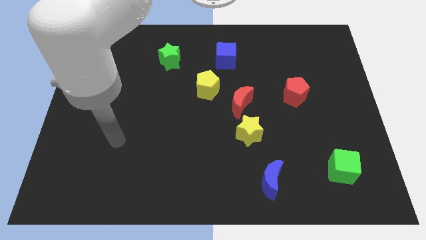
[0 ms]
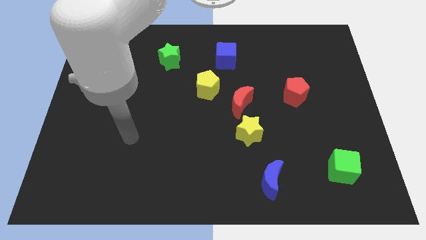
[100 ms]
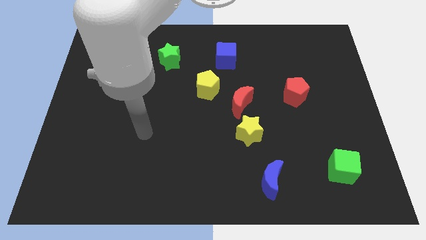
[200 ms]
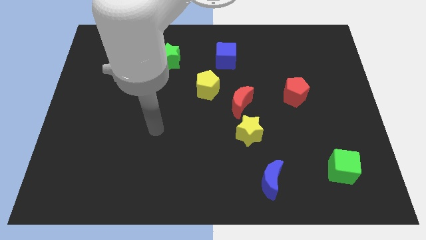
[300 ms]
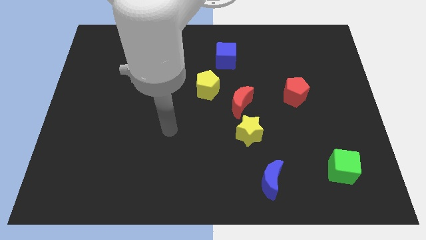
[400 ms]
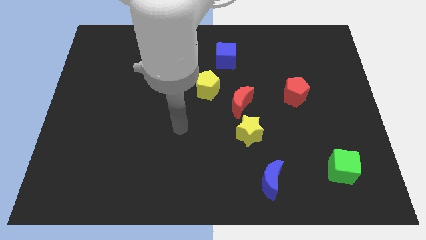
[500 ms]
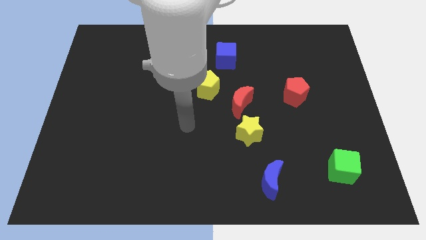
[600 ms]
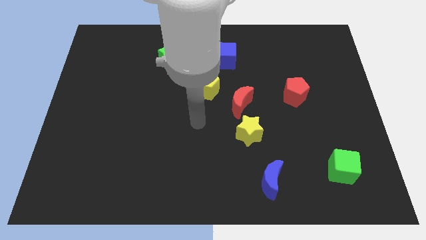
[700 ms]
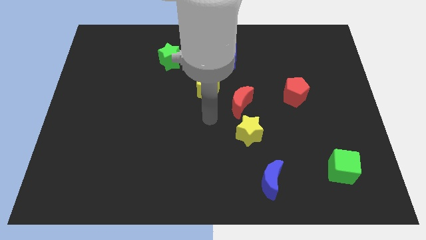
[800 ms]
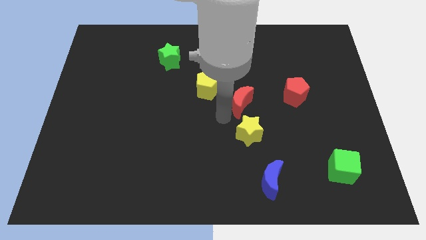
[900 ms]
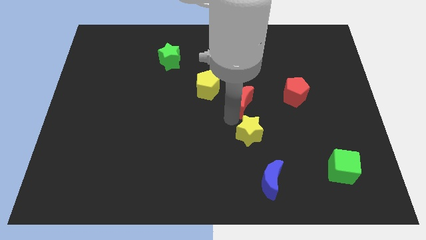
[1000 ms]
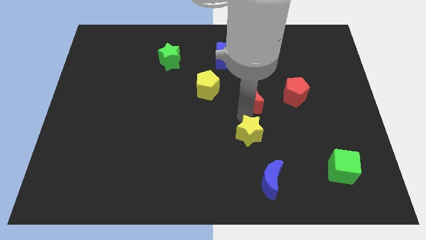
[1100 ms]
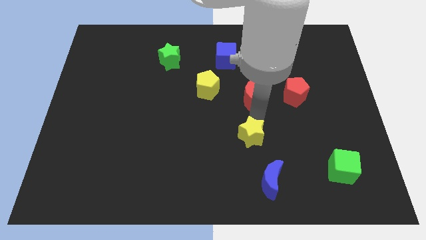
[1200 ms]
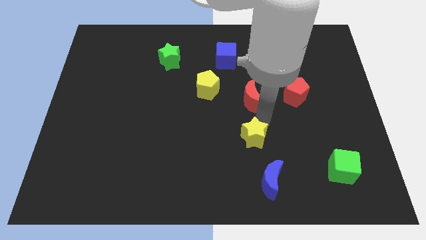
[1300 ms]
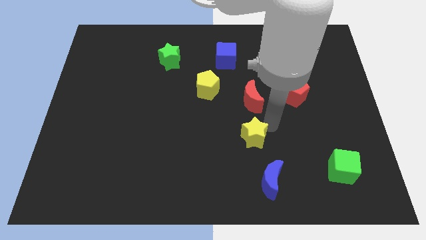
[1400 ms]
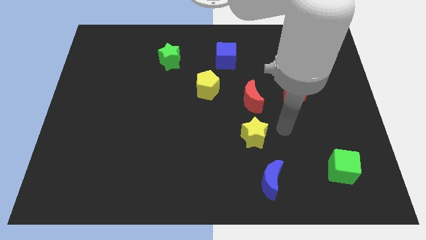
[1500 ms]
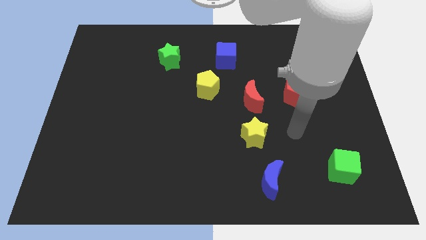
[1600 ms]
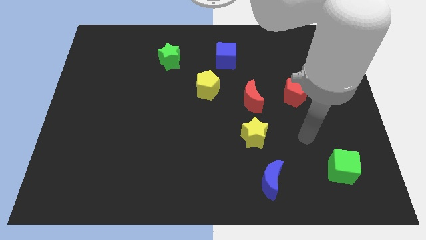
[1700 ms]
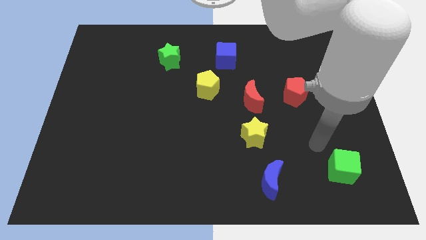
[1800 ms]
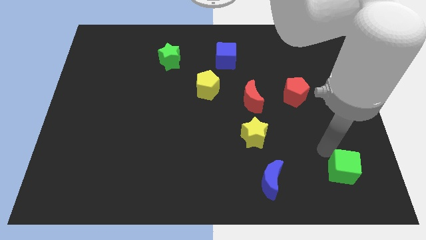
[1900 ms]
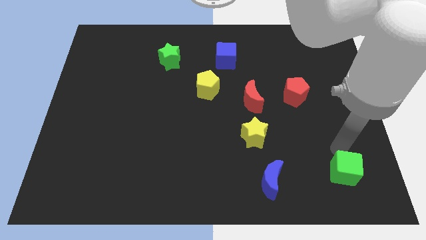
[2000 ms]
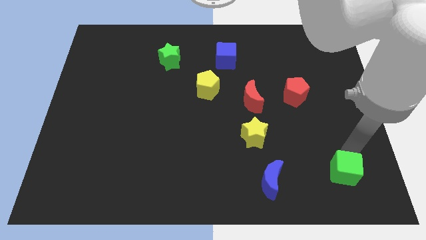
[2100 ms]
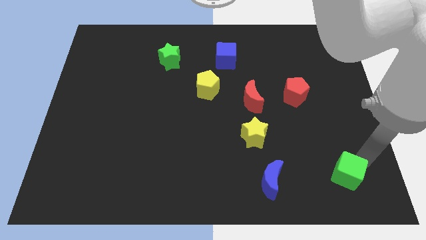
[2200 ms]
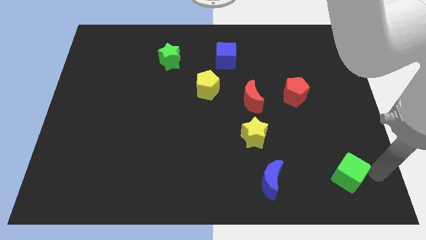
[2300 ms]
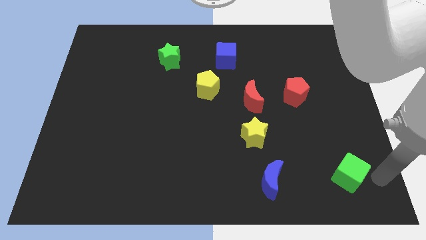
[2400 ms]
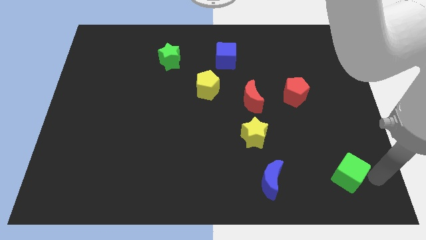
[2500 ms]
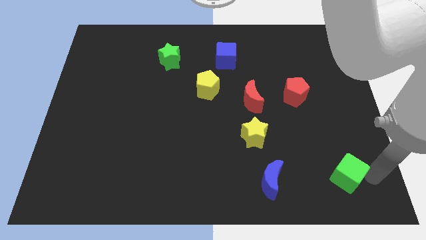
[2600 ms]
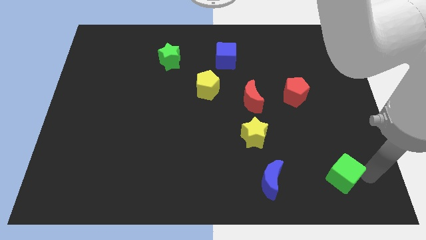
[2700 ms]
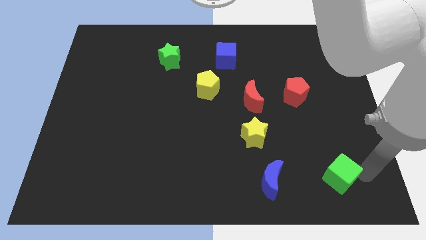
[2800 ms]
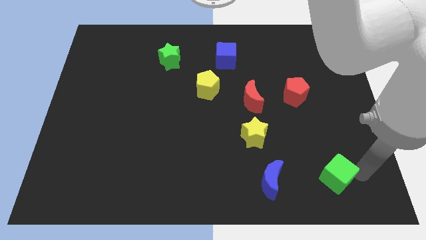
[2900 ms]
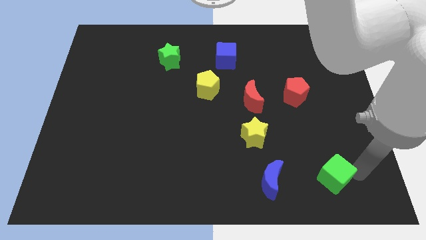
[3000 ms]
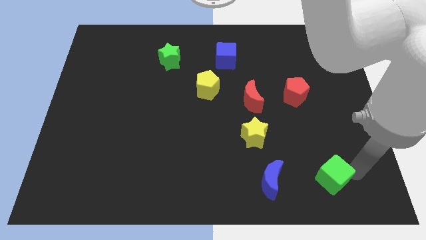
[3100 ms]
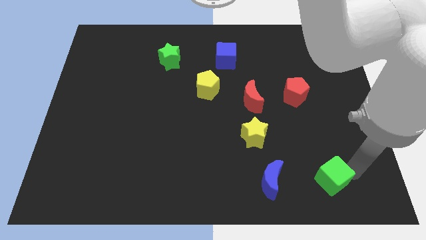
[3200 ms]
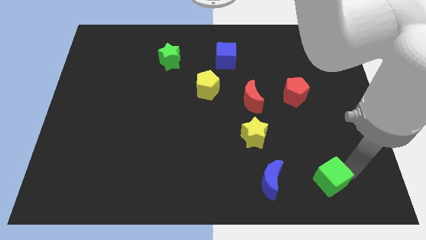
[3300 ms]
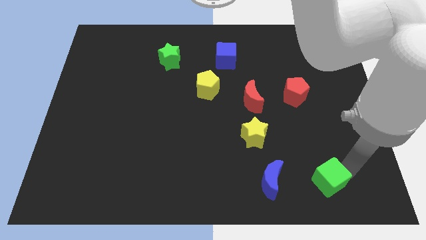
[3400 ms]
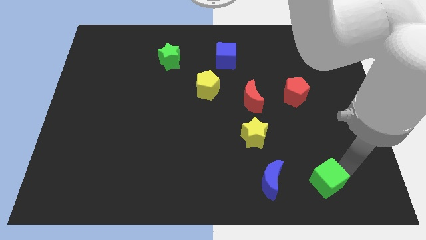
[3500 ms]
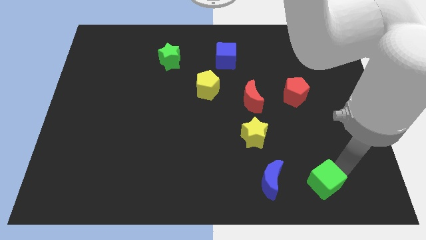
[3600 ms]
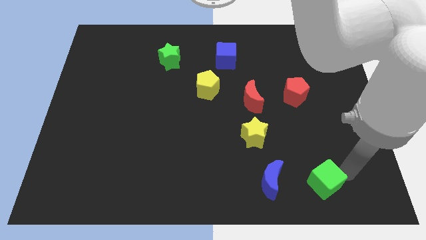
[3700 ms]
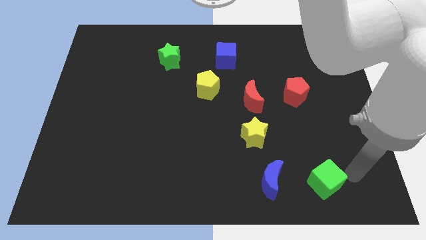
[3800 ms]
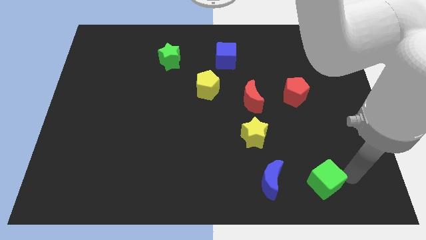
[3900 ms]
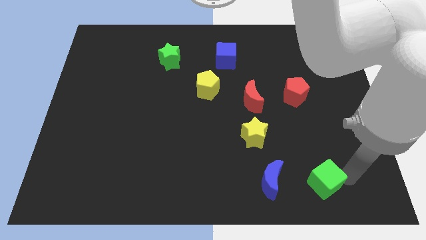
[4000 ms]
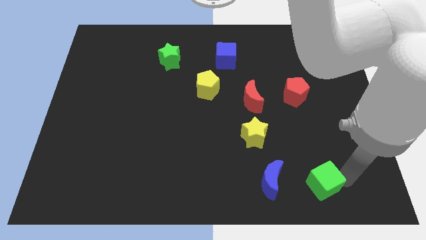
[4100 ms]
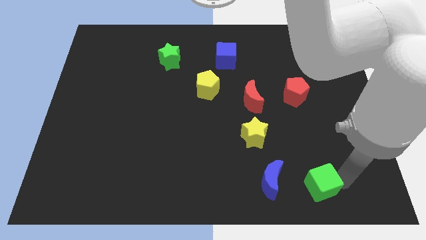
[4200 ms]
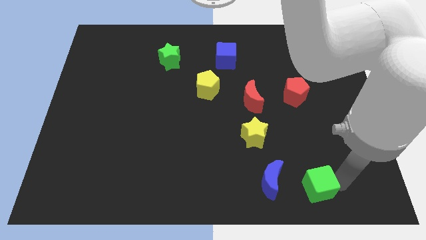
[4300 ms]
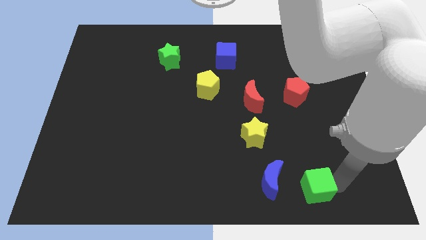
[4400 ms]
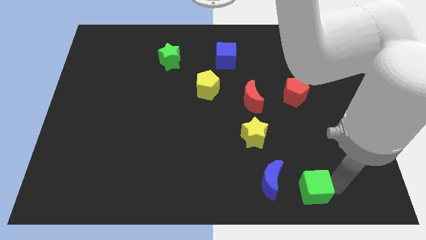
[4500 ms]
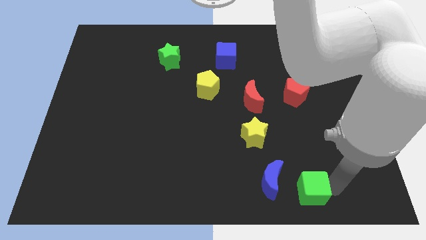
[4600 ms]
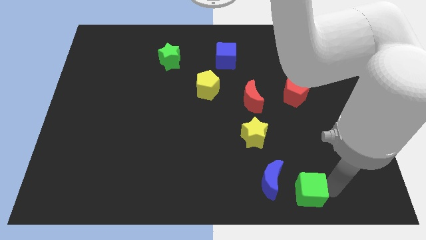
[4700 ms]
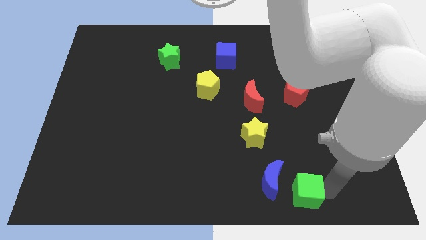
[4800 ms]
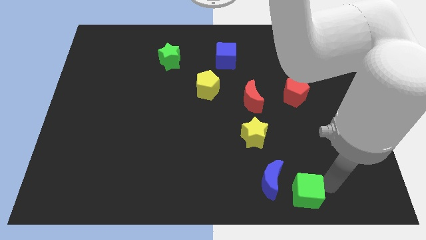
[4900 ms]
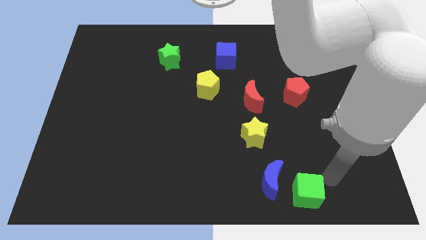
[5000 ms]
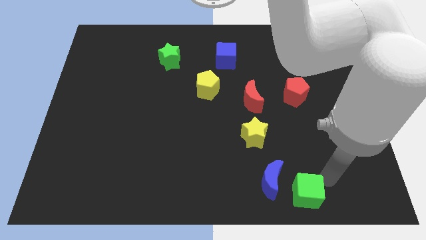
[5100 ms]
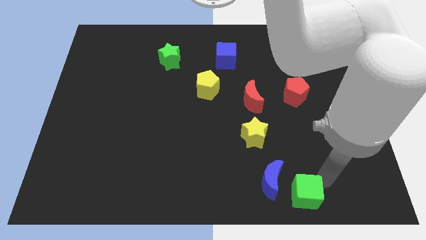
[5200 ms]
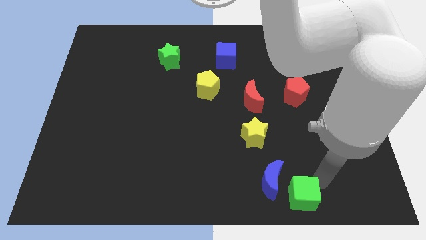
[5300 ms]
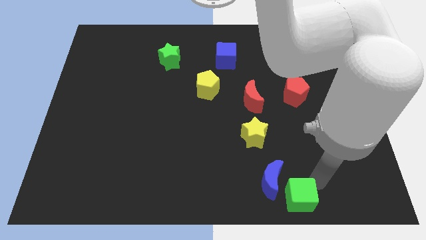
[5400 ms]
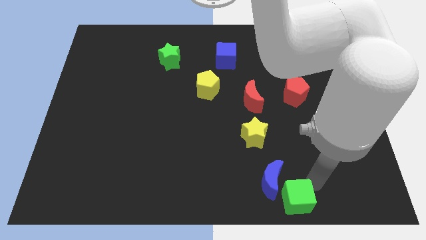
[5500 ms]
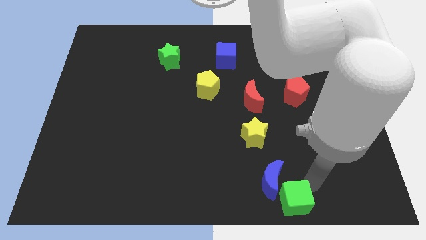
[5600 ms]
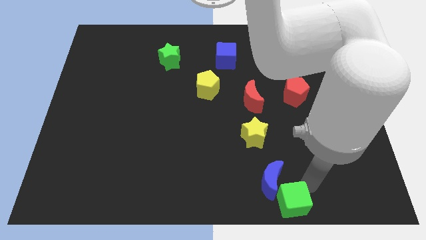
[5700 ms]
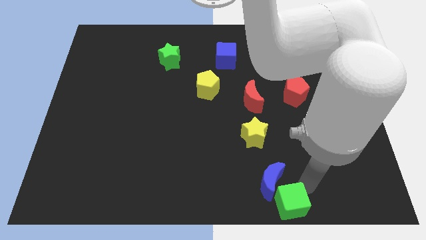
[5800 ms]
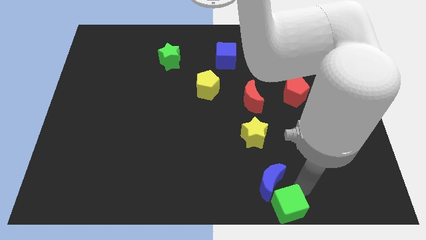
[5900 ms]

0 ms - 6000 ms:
push the green cube to the bottom side
